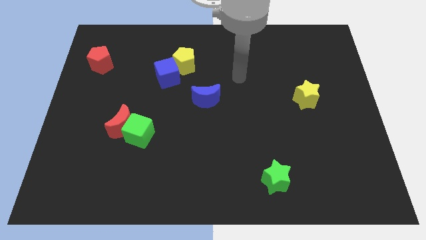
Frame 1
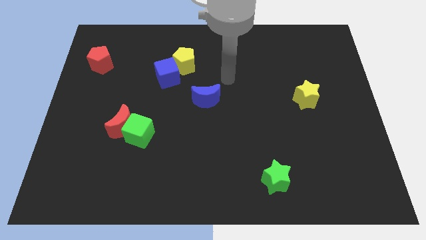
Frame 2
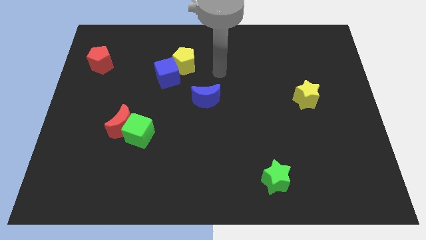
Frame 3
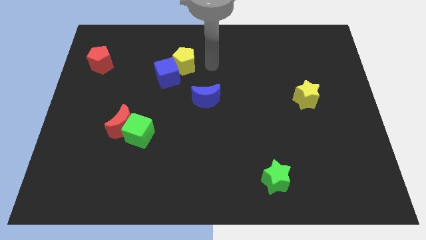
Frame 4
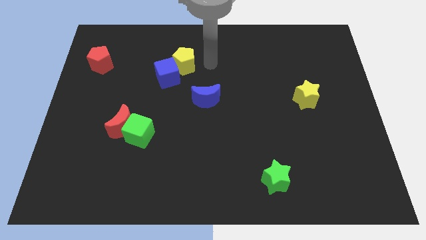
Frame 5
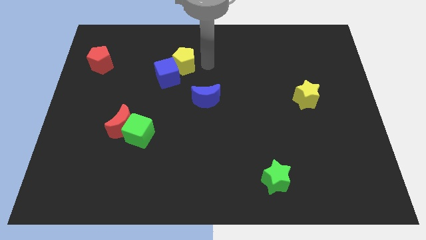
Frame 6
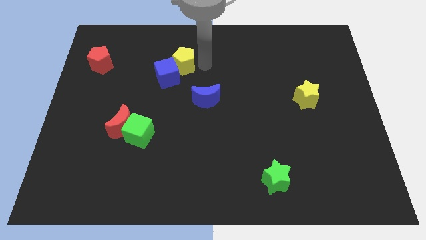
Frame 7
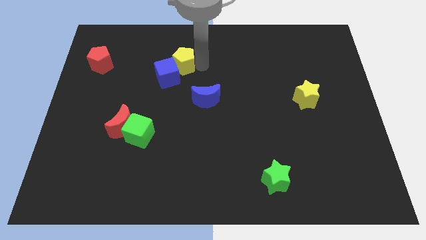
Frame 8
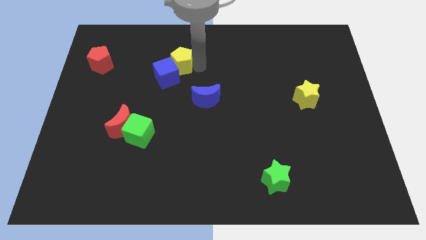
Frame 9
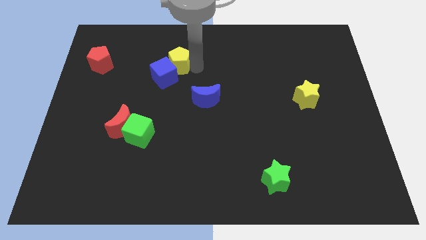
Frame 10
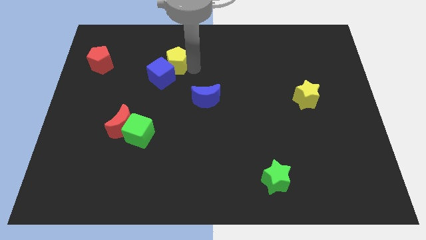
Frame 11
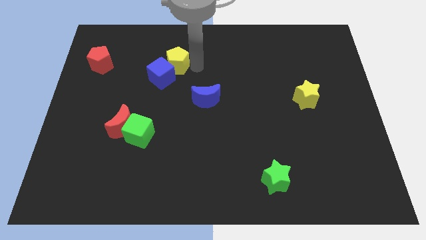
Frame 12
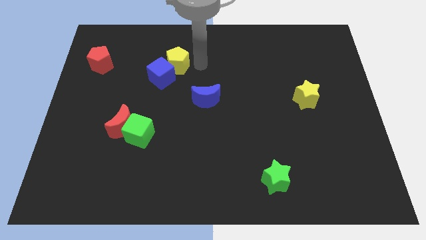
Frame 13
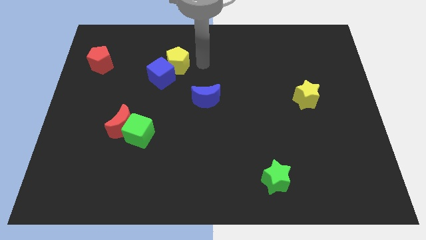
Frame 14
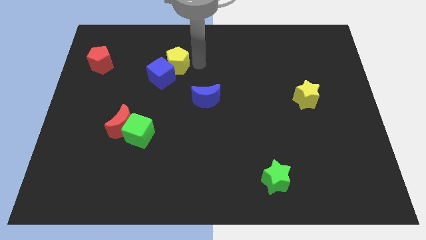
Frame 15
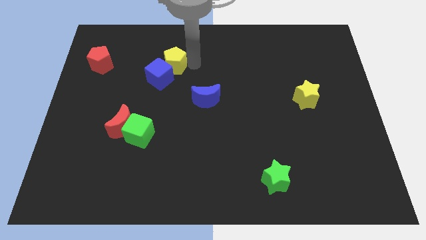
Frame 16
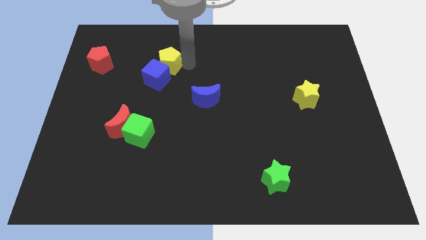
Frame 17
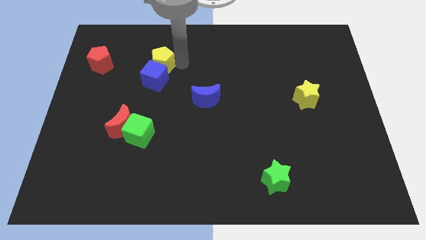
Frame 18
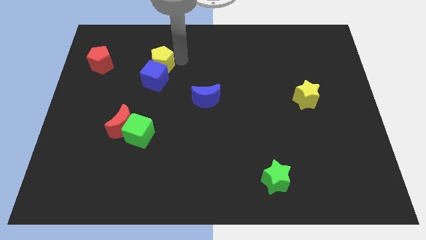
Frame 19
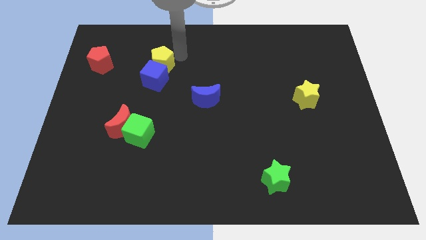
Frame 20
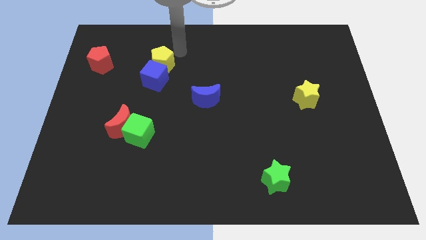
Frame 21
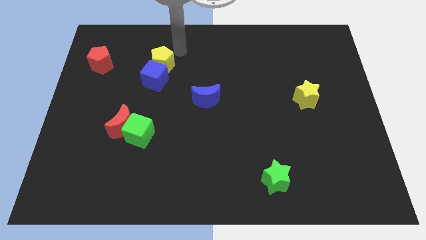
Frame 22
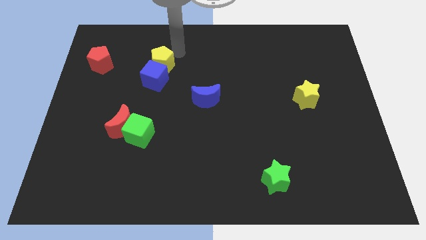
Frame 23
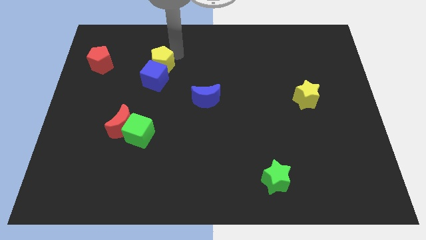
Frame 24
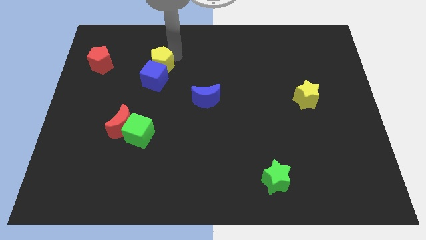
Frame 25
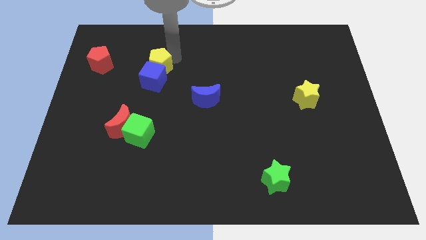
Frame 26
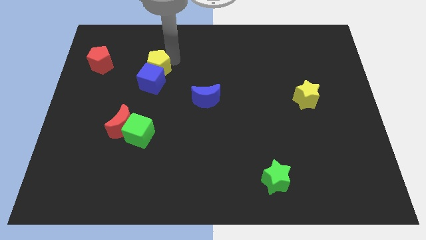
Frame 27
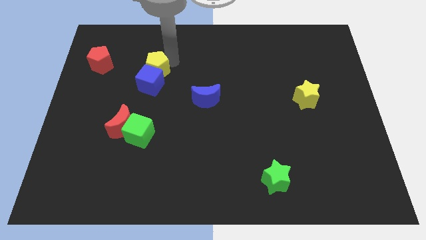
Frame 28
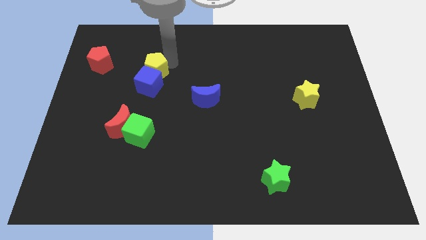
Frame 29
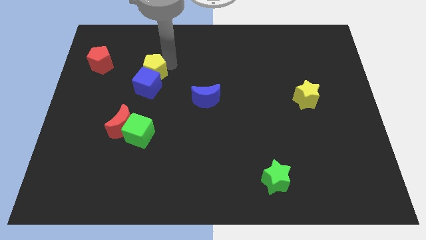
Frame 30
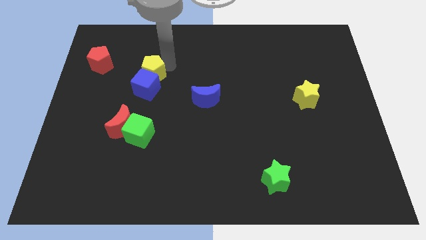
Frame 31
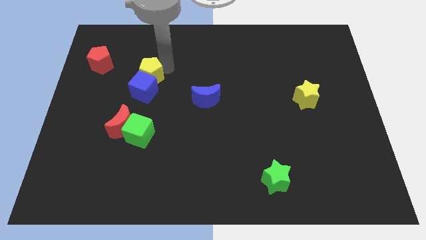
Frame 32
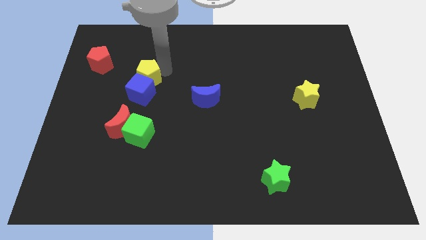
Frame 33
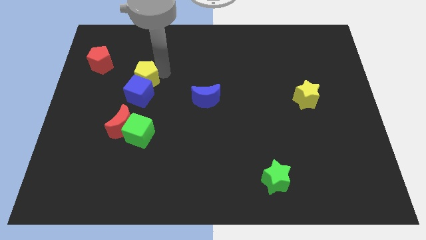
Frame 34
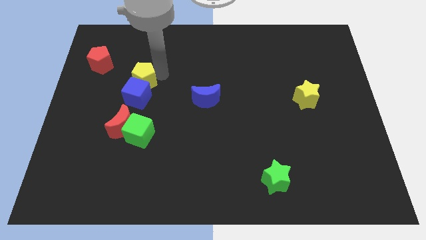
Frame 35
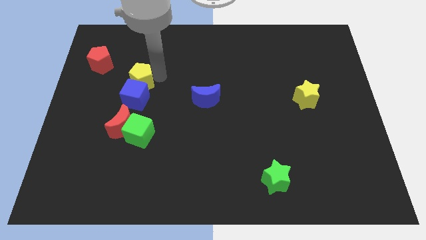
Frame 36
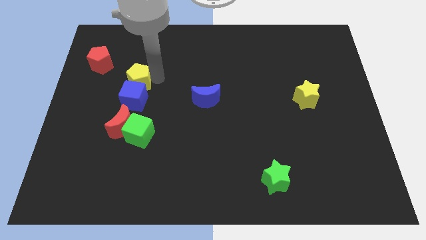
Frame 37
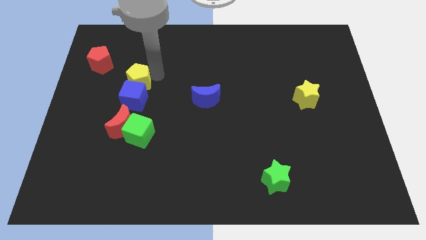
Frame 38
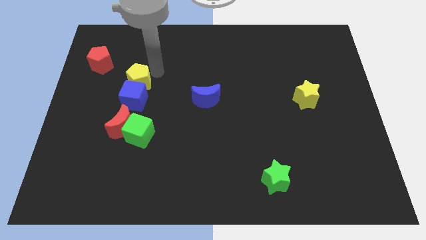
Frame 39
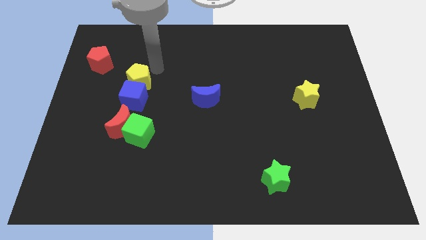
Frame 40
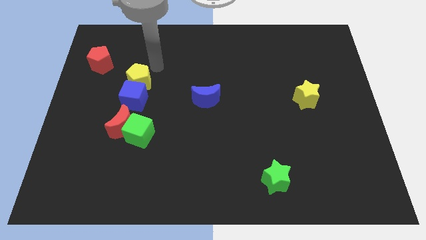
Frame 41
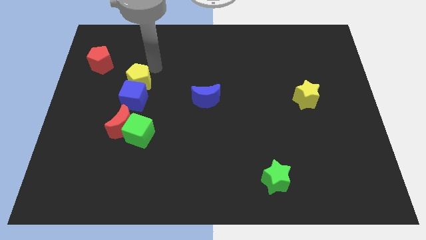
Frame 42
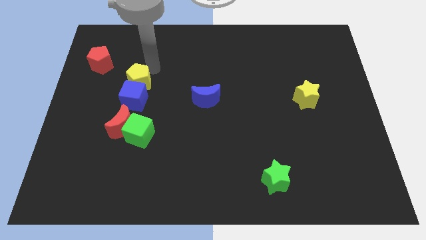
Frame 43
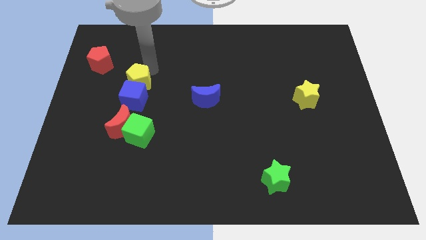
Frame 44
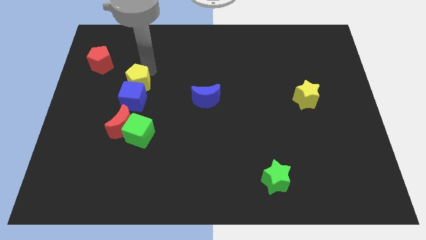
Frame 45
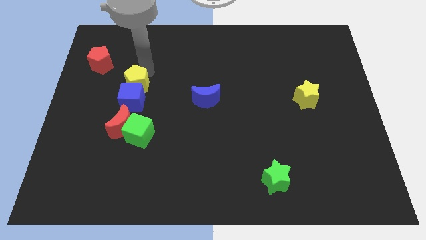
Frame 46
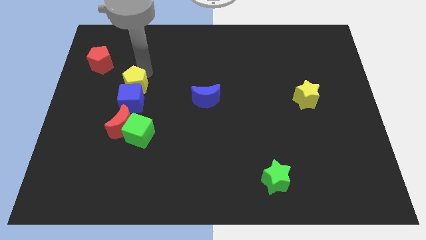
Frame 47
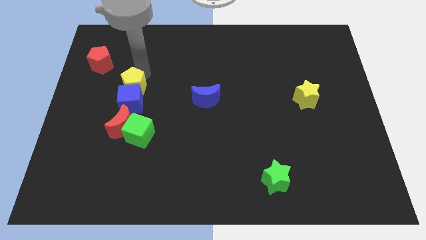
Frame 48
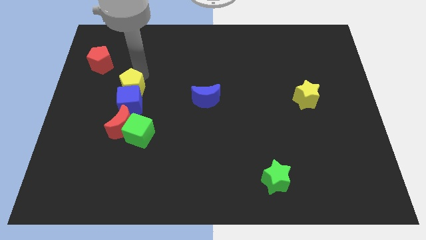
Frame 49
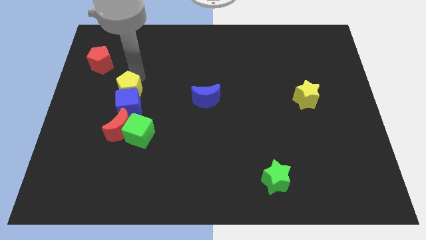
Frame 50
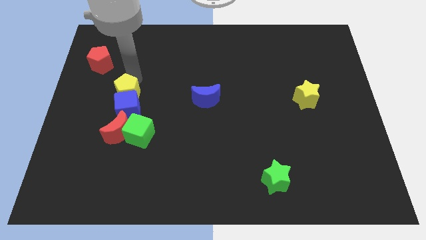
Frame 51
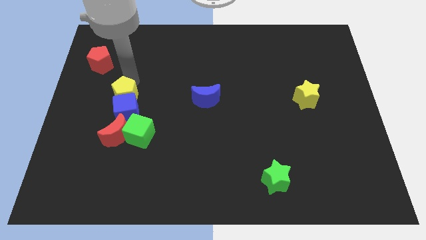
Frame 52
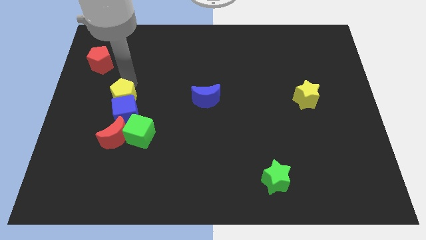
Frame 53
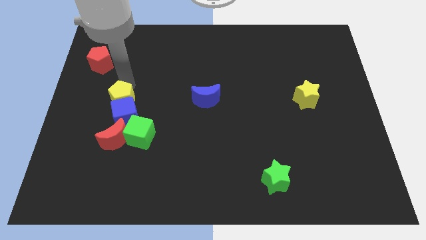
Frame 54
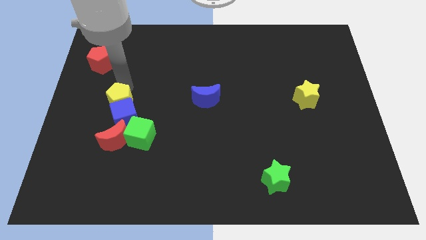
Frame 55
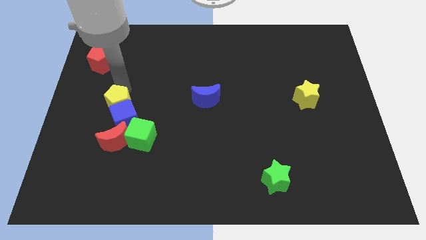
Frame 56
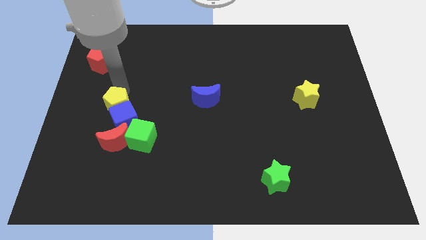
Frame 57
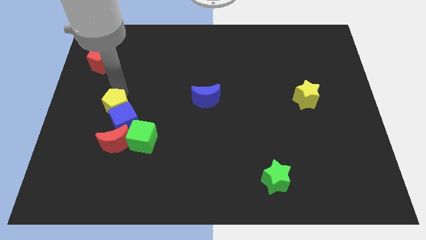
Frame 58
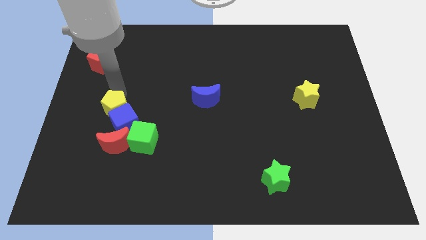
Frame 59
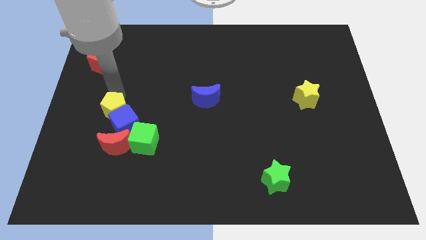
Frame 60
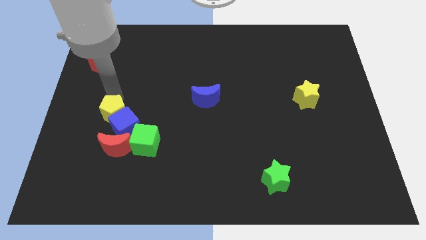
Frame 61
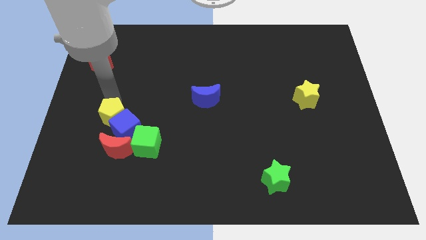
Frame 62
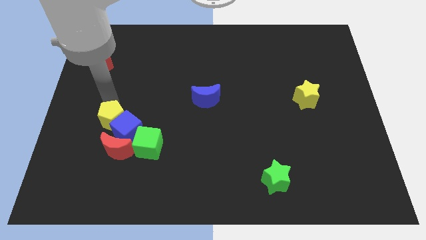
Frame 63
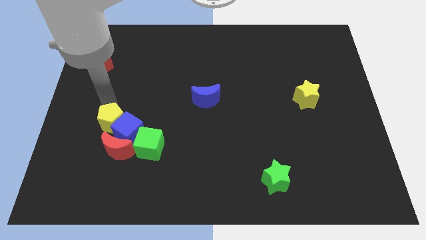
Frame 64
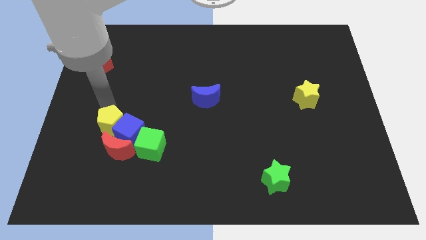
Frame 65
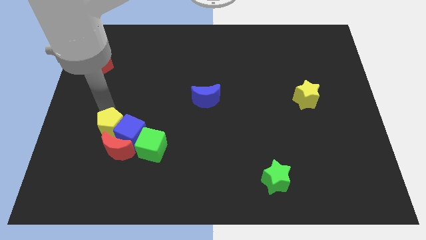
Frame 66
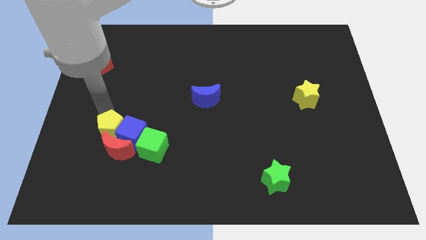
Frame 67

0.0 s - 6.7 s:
move the yellow pentagon to the left side of the green cube

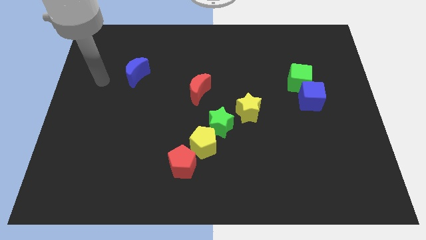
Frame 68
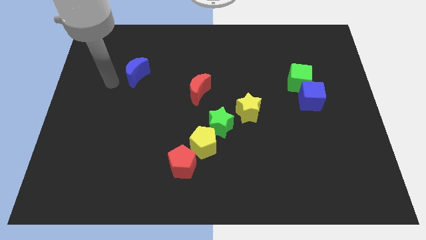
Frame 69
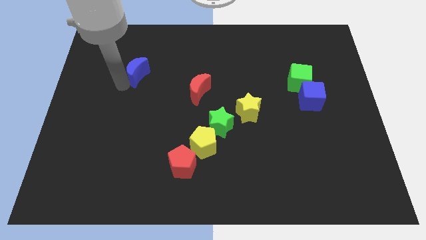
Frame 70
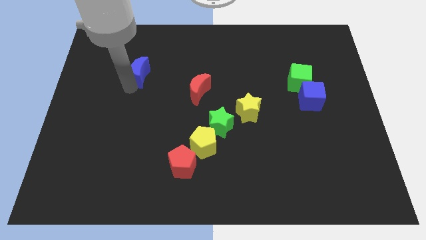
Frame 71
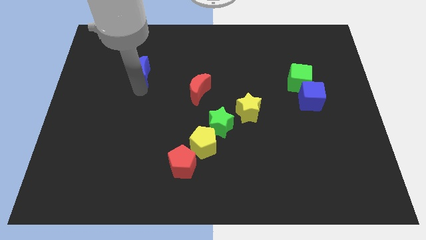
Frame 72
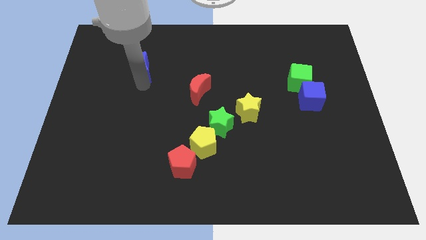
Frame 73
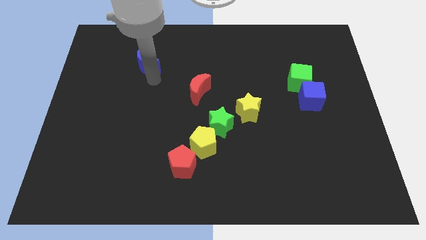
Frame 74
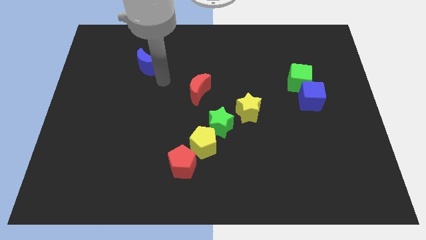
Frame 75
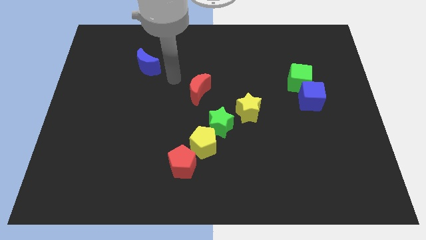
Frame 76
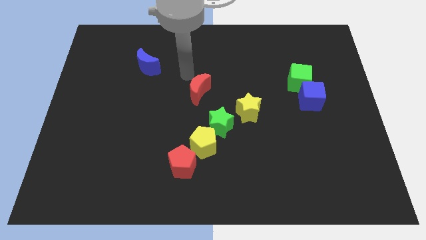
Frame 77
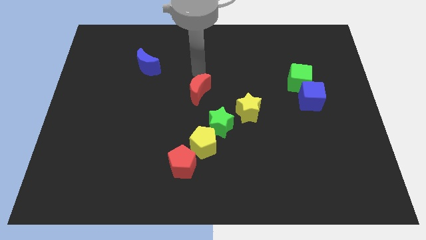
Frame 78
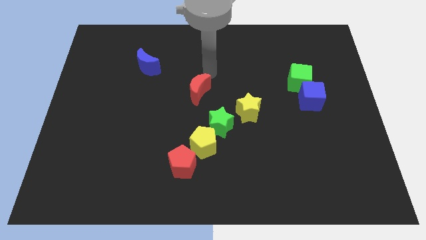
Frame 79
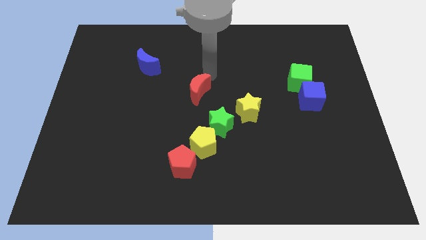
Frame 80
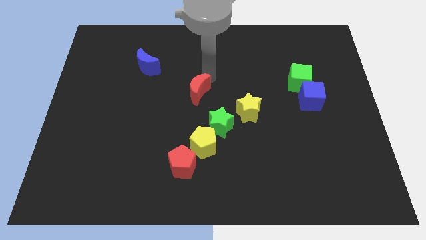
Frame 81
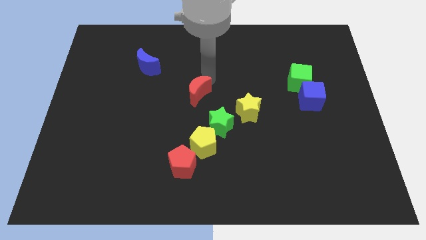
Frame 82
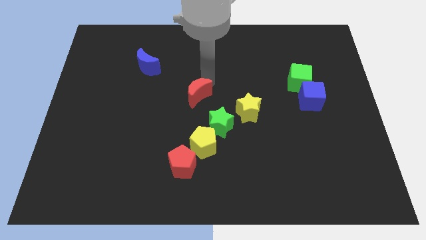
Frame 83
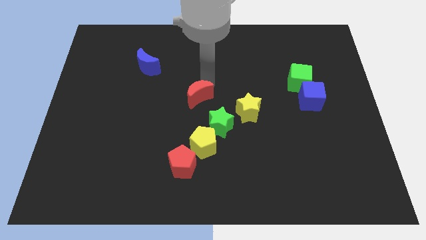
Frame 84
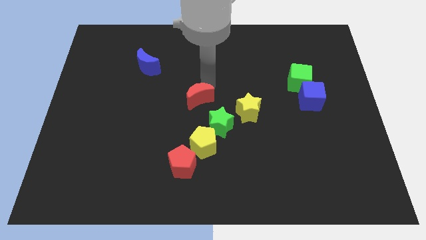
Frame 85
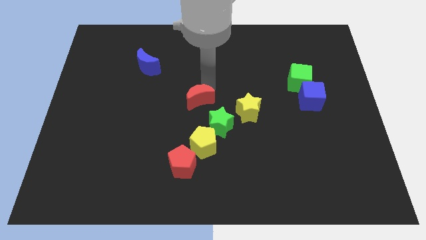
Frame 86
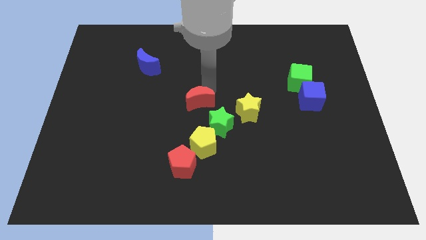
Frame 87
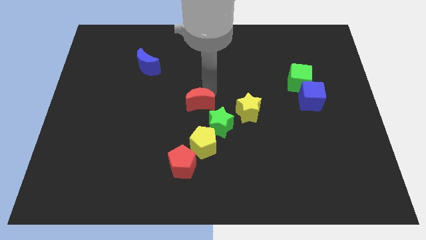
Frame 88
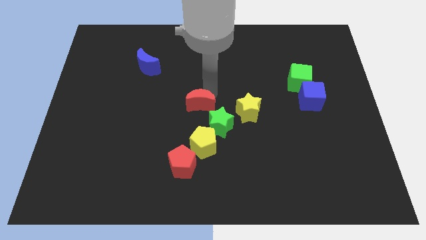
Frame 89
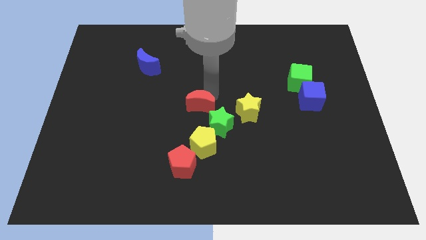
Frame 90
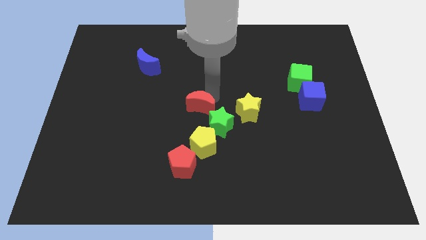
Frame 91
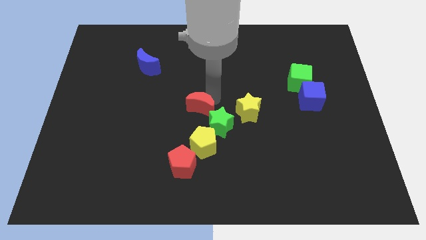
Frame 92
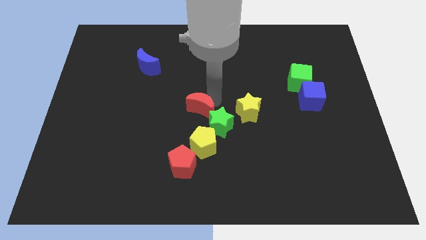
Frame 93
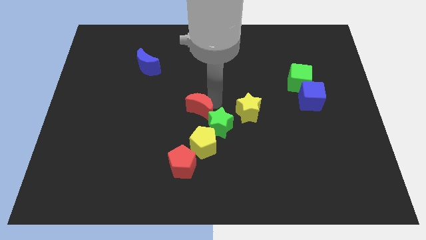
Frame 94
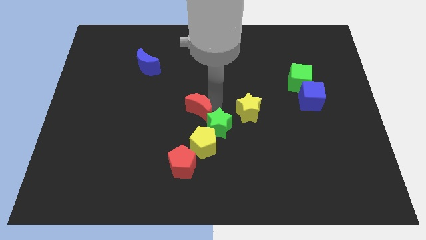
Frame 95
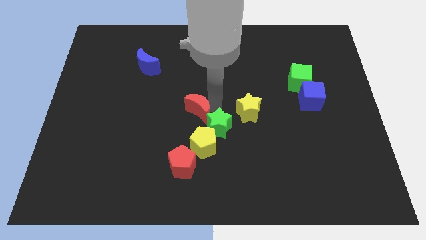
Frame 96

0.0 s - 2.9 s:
push the red moon to the left of the green star
